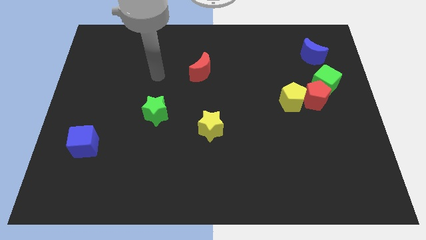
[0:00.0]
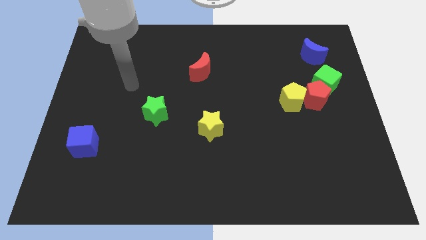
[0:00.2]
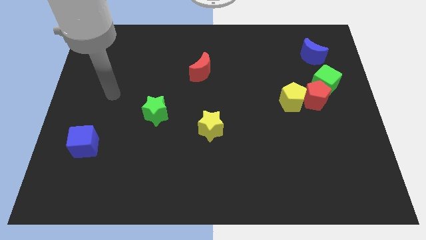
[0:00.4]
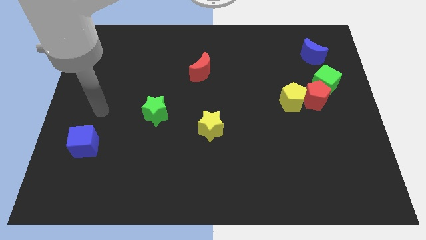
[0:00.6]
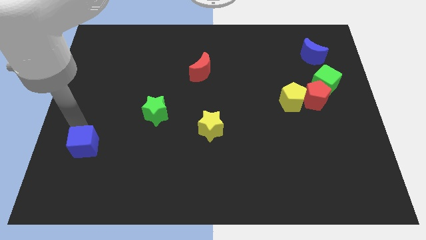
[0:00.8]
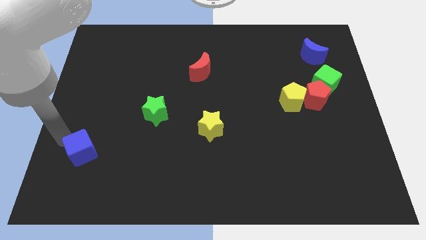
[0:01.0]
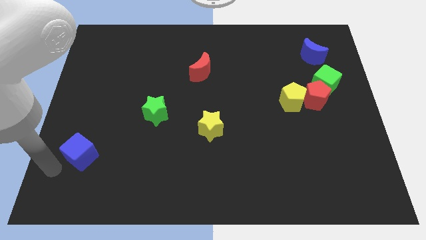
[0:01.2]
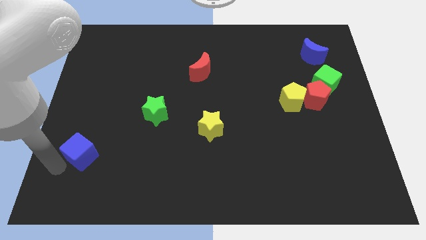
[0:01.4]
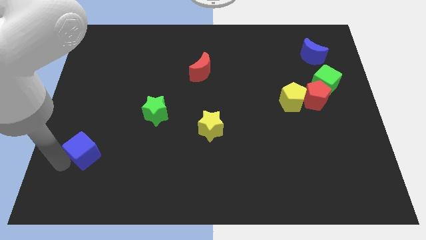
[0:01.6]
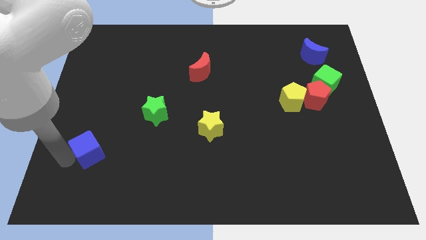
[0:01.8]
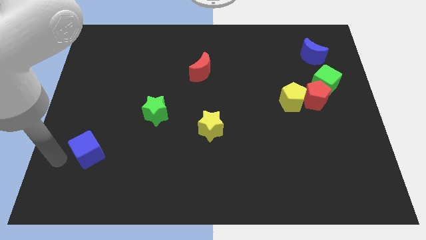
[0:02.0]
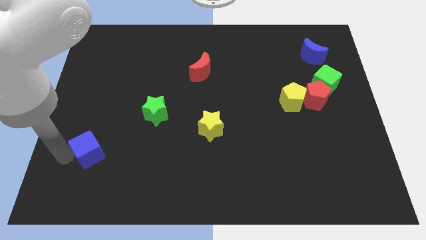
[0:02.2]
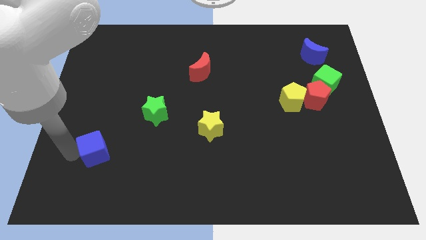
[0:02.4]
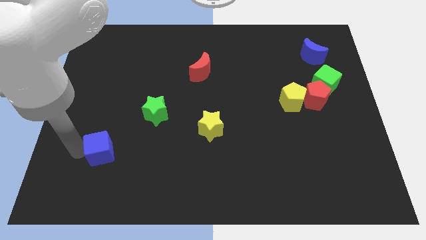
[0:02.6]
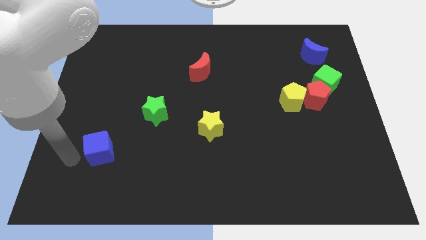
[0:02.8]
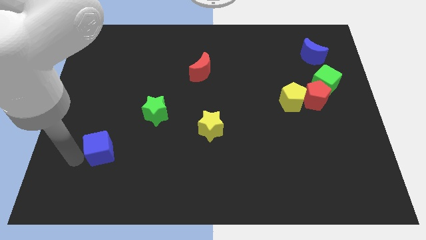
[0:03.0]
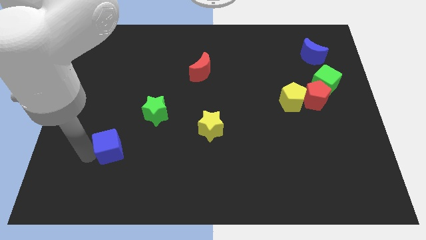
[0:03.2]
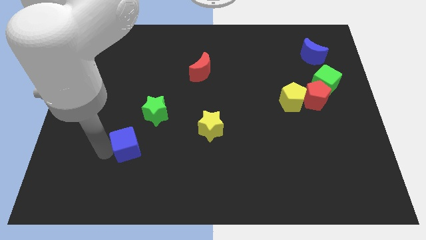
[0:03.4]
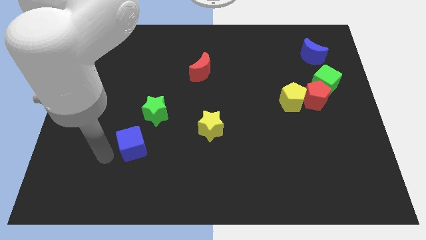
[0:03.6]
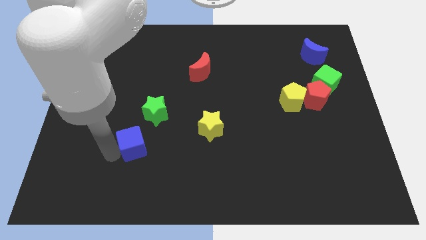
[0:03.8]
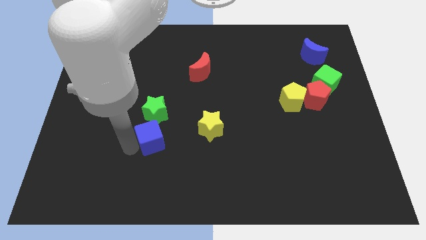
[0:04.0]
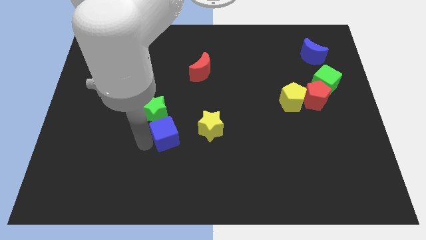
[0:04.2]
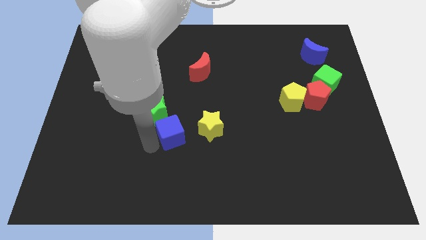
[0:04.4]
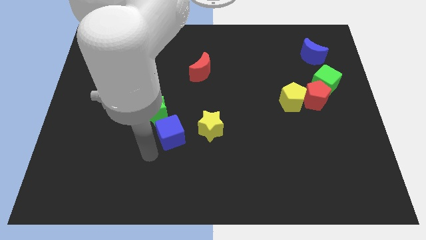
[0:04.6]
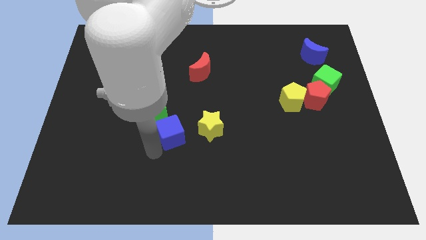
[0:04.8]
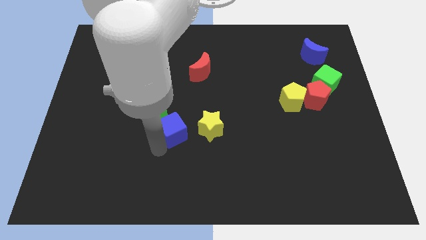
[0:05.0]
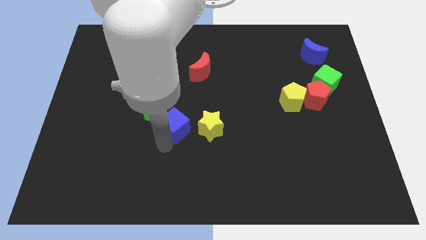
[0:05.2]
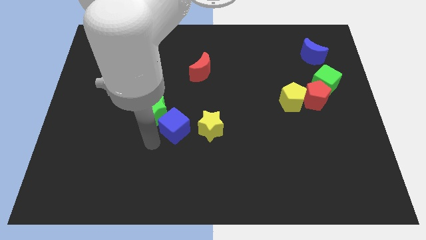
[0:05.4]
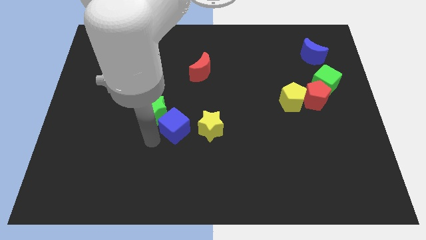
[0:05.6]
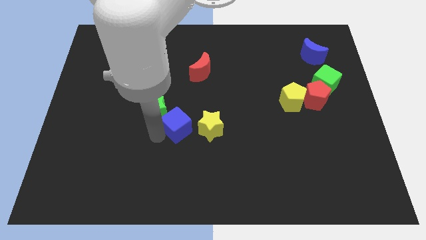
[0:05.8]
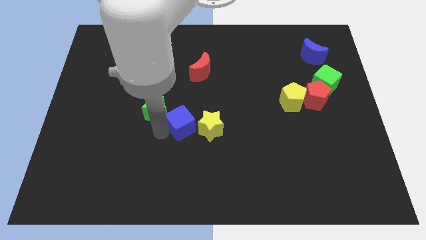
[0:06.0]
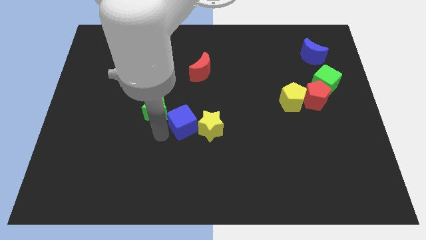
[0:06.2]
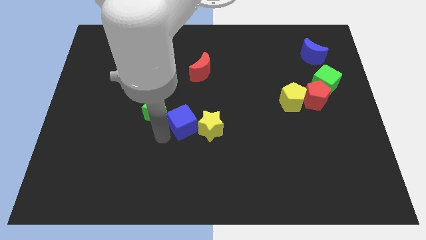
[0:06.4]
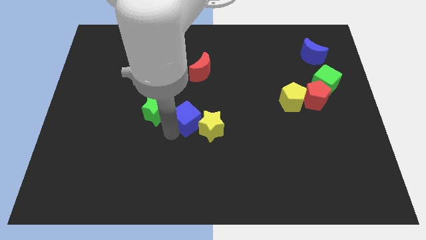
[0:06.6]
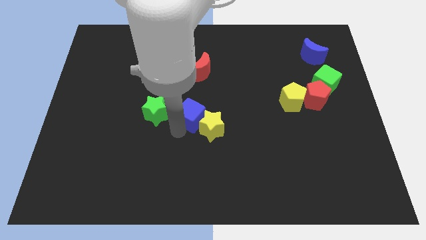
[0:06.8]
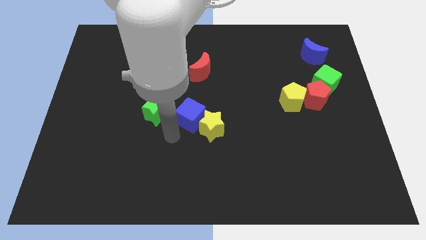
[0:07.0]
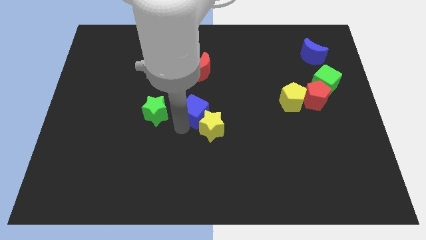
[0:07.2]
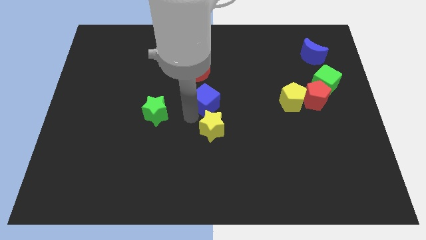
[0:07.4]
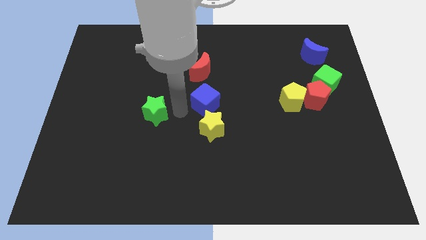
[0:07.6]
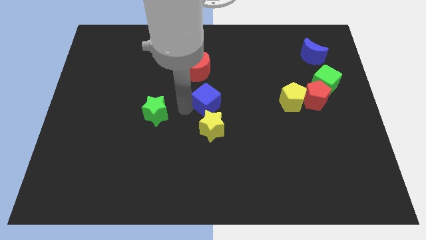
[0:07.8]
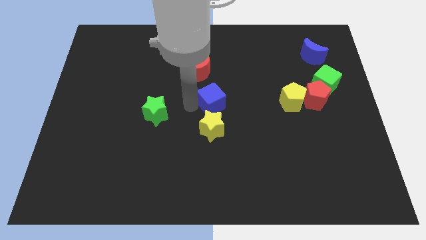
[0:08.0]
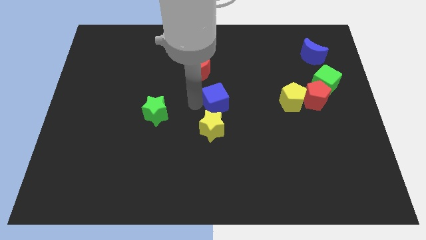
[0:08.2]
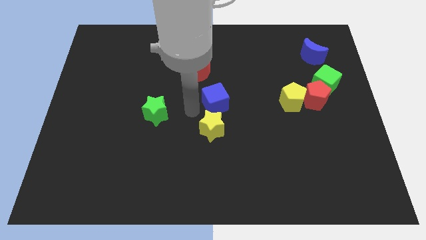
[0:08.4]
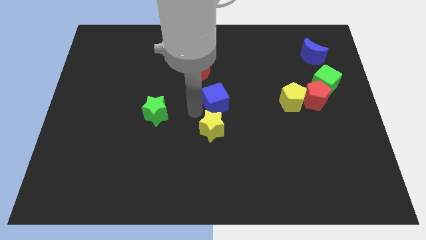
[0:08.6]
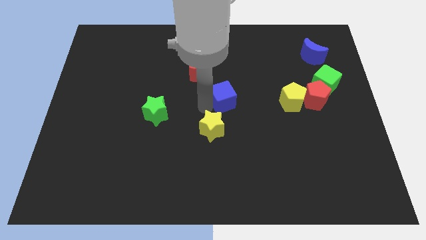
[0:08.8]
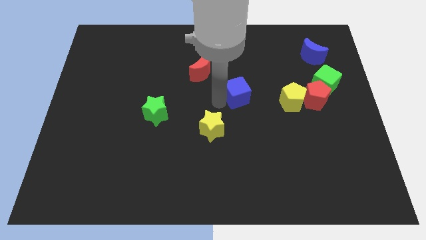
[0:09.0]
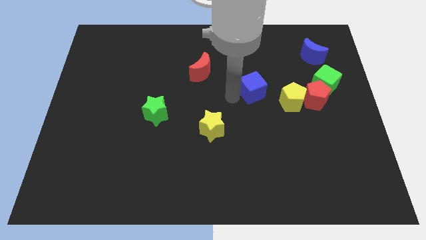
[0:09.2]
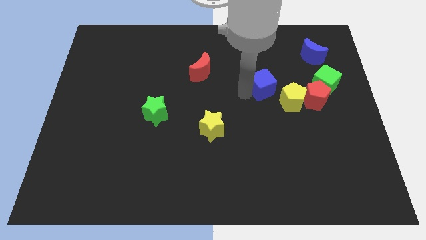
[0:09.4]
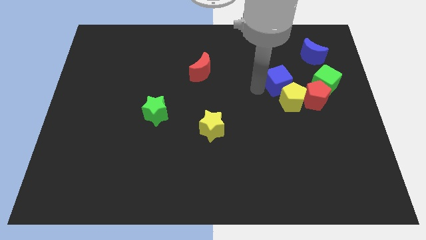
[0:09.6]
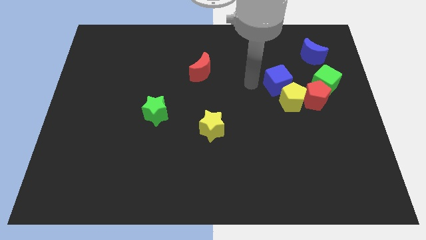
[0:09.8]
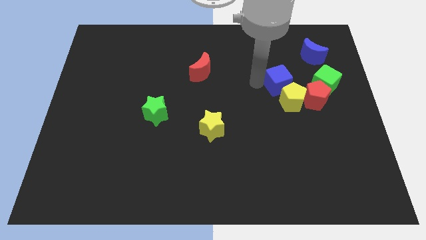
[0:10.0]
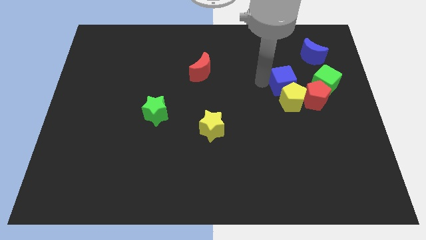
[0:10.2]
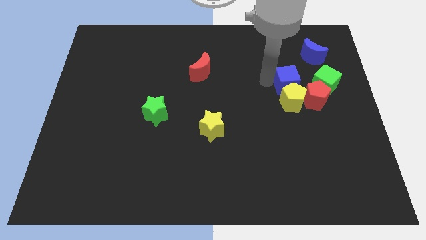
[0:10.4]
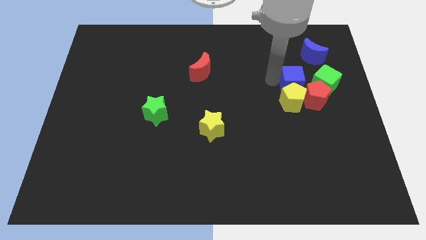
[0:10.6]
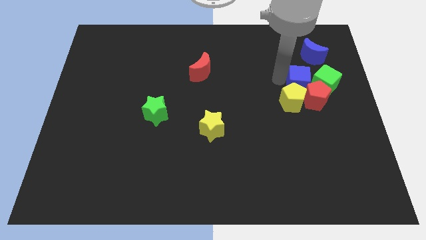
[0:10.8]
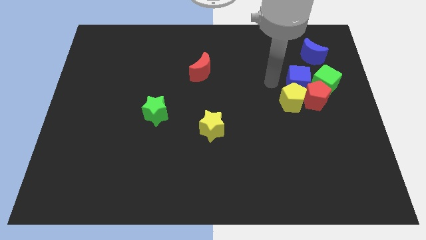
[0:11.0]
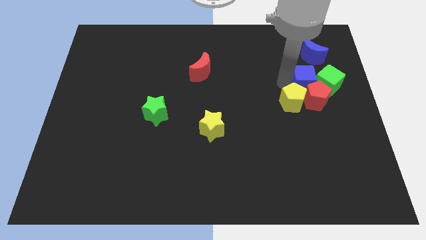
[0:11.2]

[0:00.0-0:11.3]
put the blue cube to the green cube

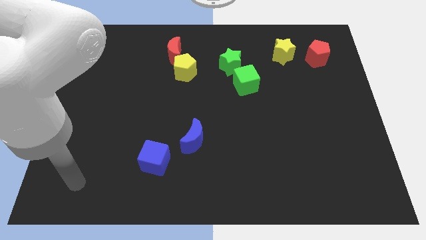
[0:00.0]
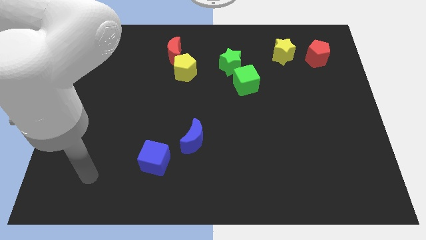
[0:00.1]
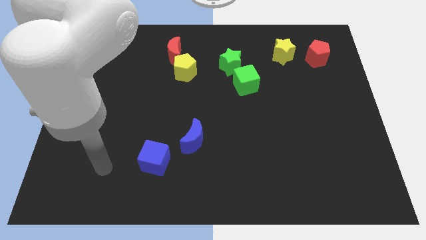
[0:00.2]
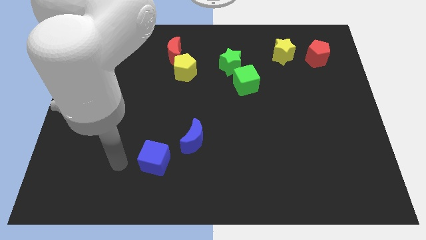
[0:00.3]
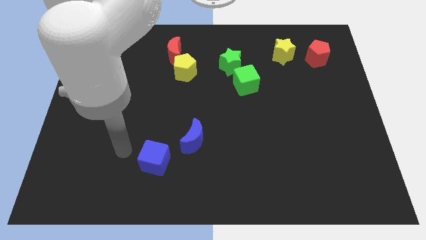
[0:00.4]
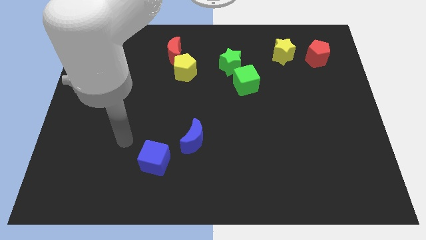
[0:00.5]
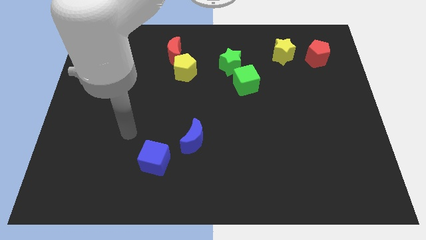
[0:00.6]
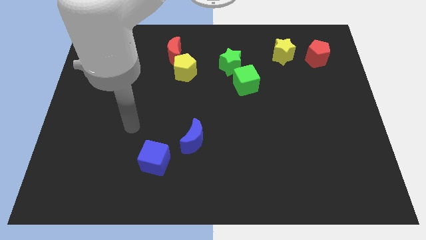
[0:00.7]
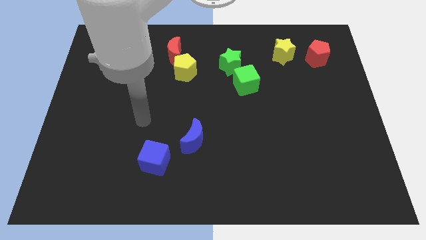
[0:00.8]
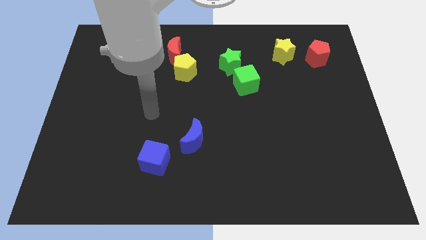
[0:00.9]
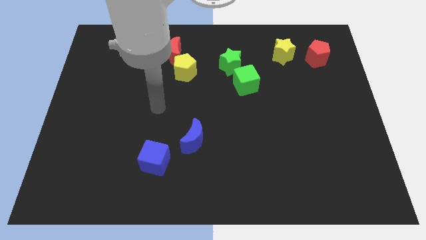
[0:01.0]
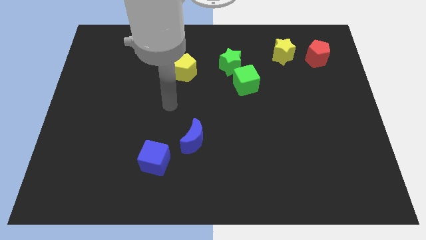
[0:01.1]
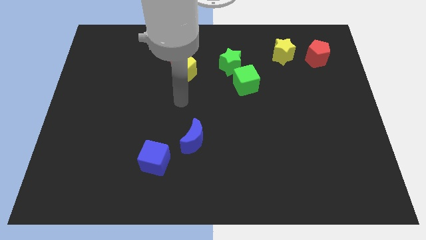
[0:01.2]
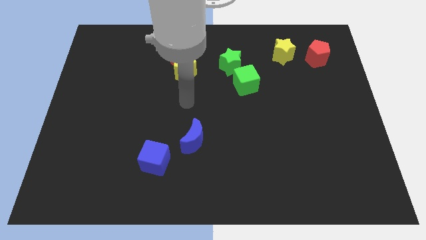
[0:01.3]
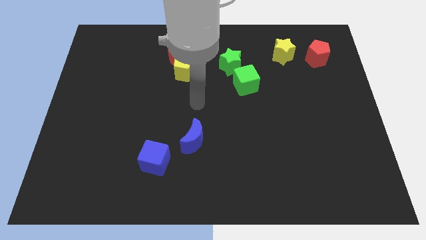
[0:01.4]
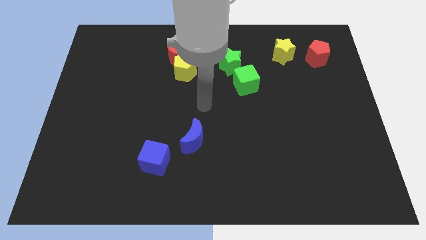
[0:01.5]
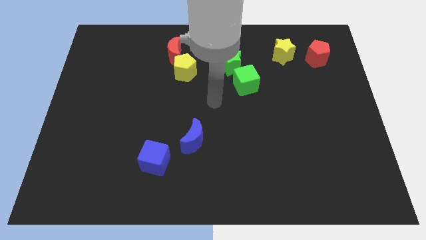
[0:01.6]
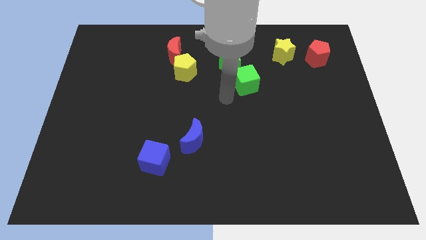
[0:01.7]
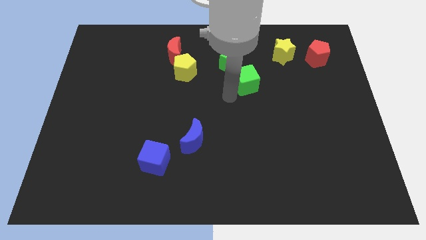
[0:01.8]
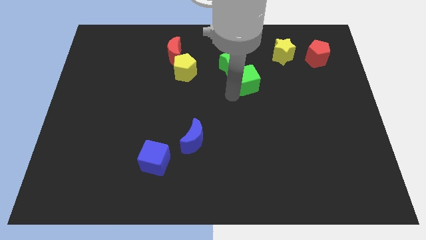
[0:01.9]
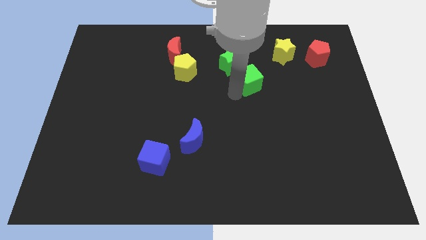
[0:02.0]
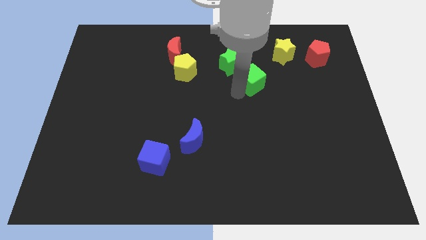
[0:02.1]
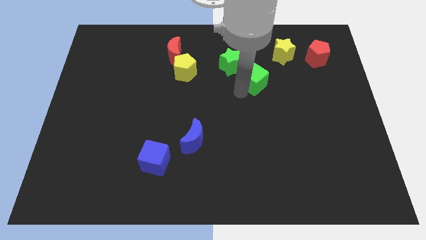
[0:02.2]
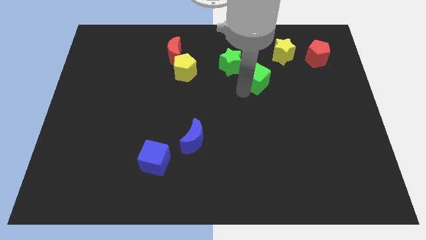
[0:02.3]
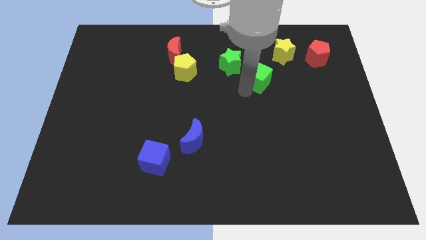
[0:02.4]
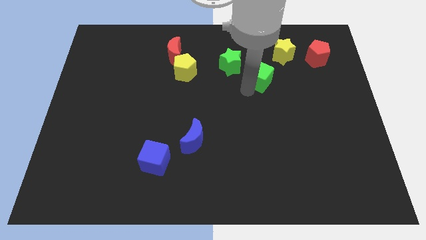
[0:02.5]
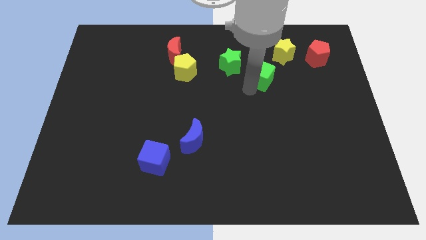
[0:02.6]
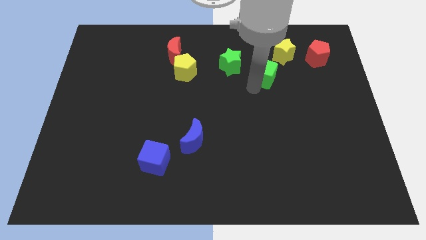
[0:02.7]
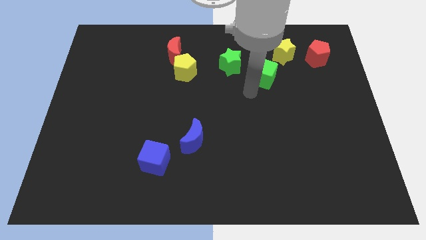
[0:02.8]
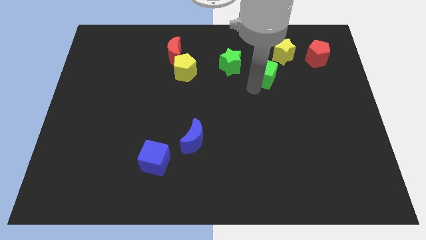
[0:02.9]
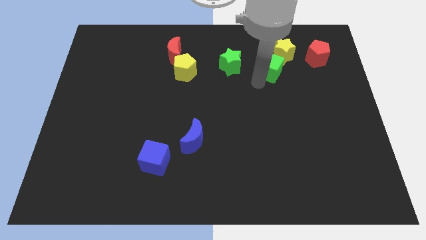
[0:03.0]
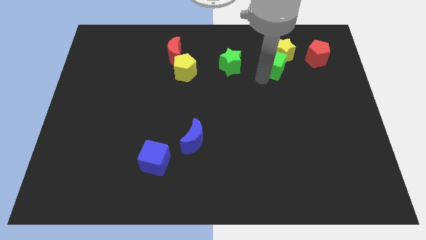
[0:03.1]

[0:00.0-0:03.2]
move the green cube towards the yellow star
